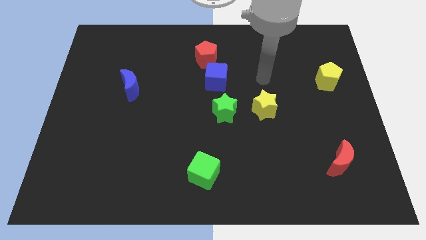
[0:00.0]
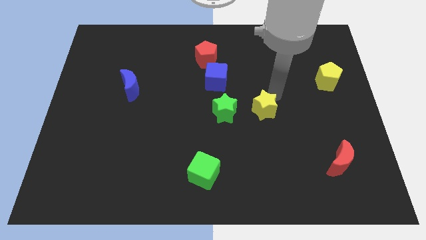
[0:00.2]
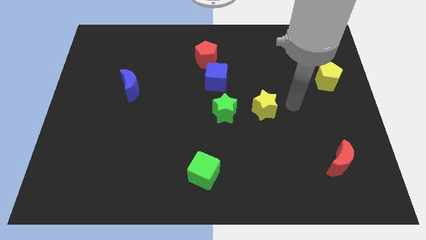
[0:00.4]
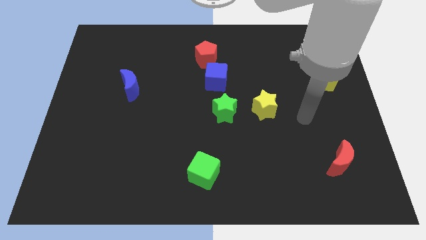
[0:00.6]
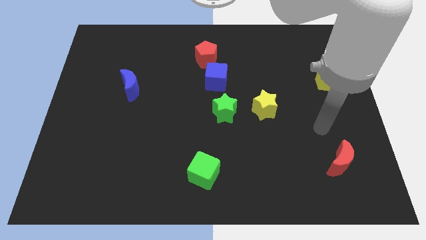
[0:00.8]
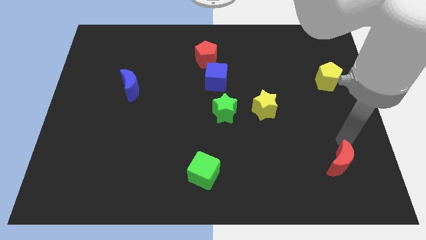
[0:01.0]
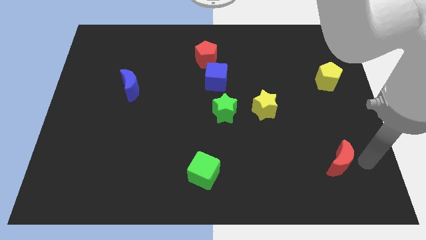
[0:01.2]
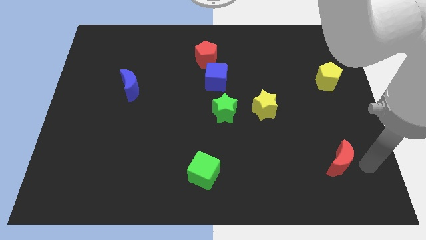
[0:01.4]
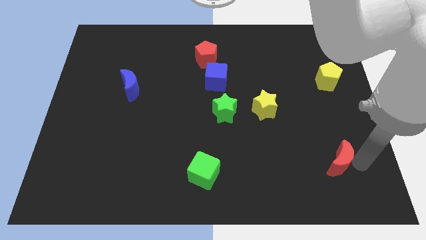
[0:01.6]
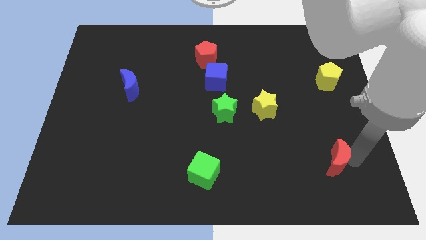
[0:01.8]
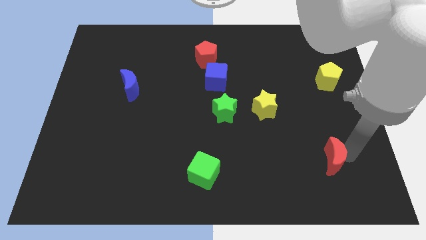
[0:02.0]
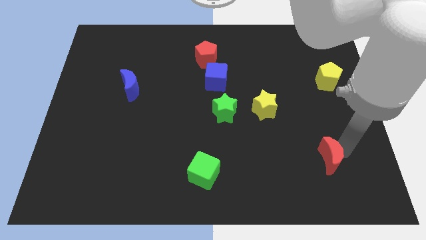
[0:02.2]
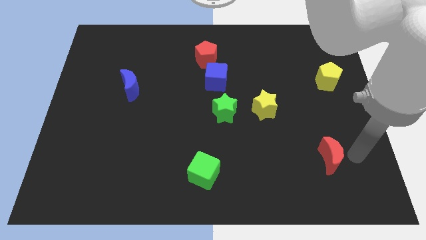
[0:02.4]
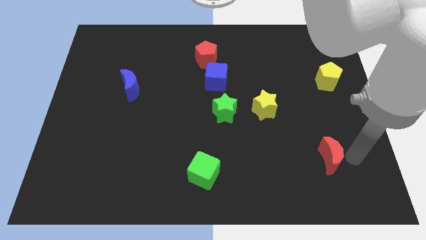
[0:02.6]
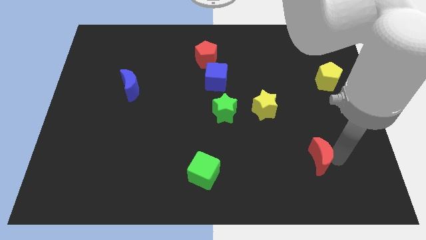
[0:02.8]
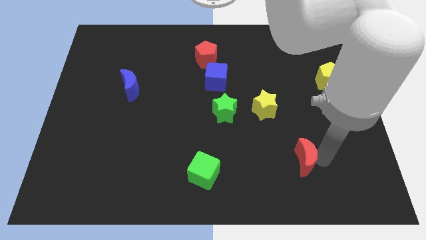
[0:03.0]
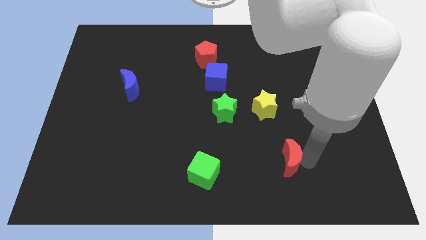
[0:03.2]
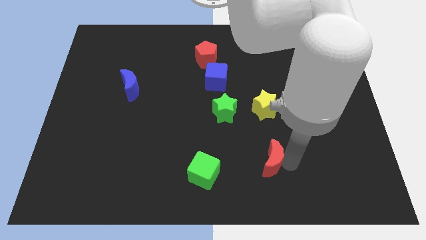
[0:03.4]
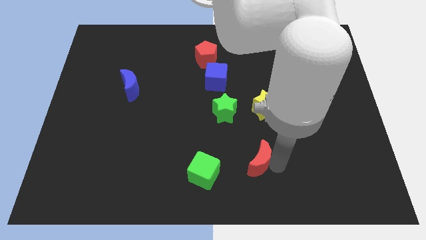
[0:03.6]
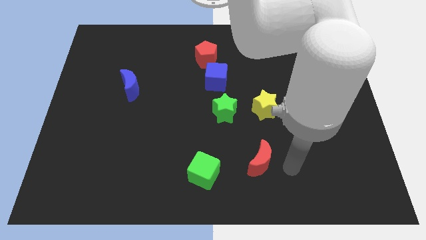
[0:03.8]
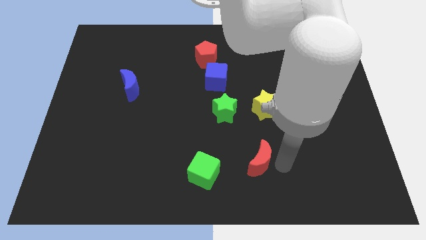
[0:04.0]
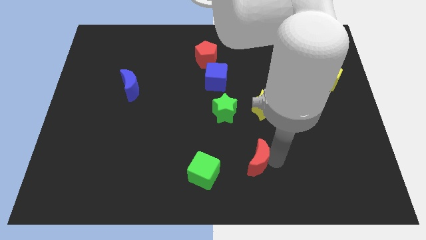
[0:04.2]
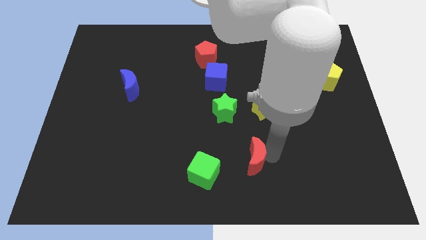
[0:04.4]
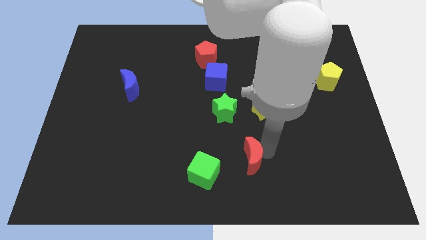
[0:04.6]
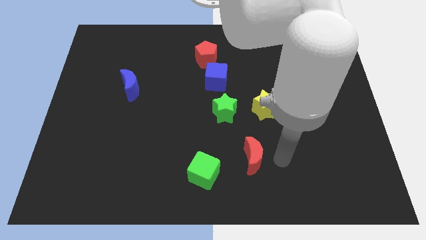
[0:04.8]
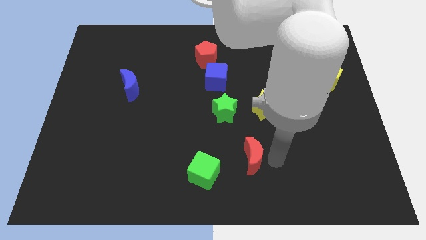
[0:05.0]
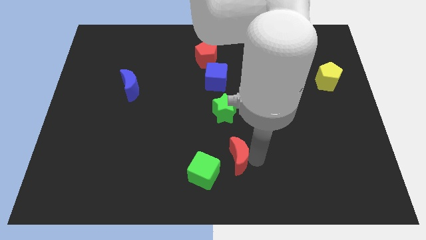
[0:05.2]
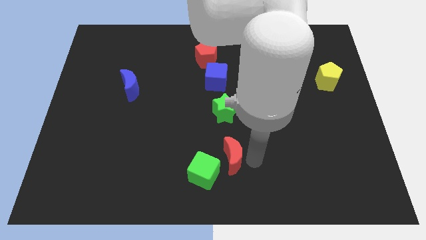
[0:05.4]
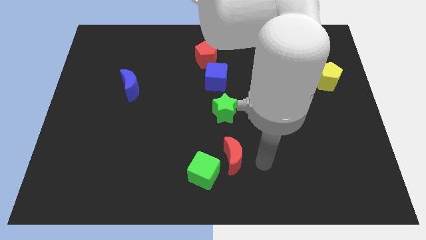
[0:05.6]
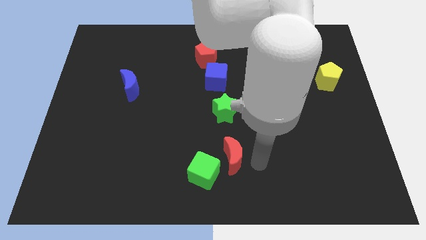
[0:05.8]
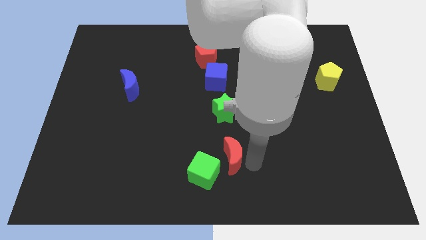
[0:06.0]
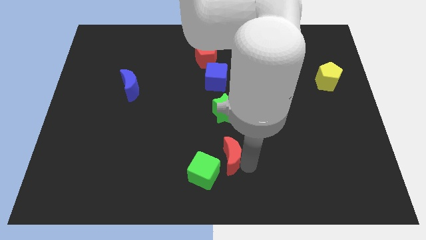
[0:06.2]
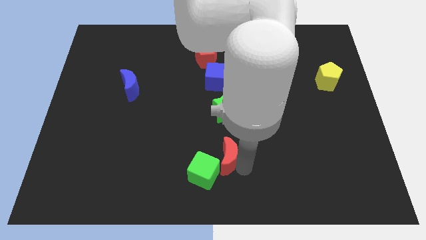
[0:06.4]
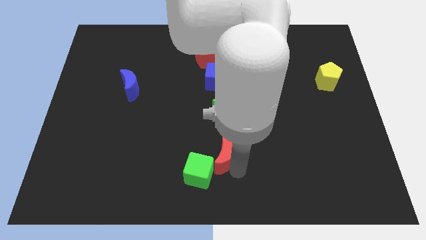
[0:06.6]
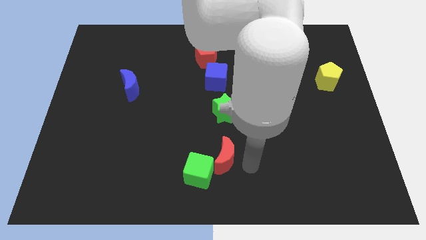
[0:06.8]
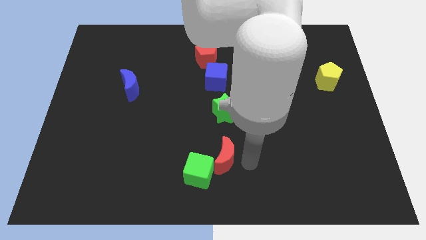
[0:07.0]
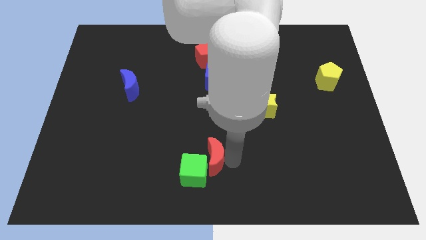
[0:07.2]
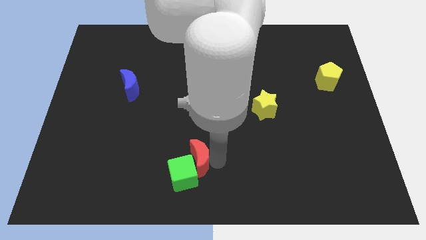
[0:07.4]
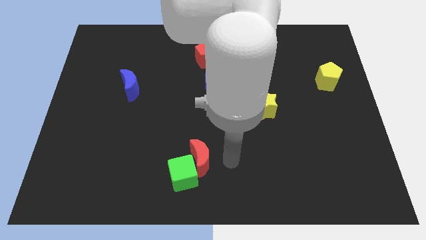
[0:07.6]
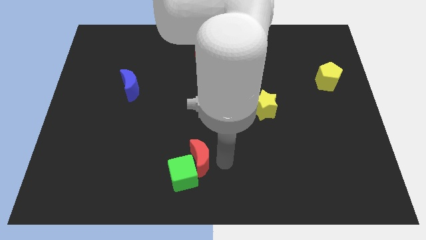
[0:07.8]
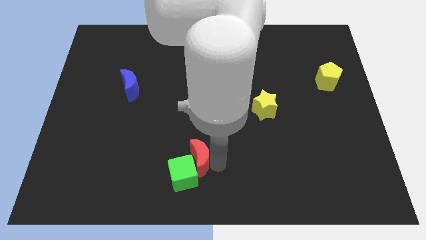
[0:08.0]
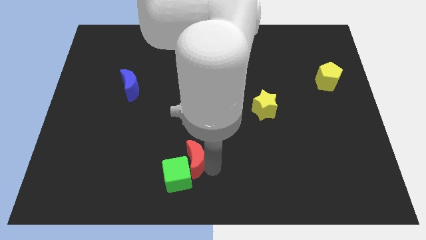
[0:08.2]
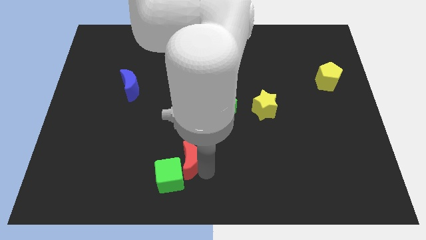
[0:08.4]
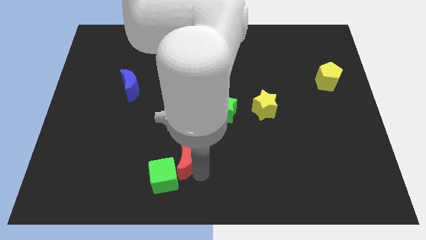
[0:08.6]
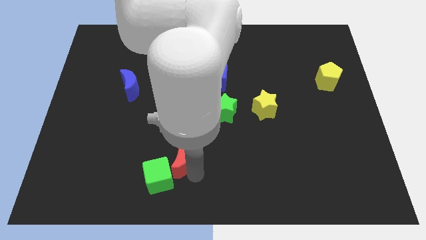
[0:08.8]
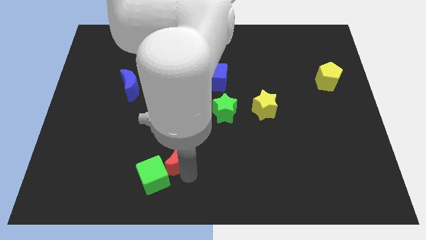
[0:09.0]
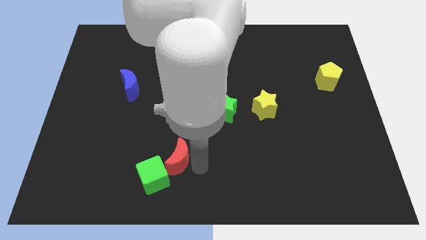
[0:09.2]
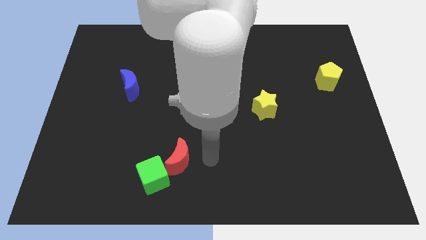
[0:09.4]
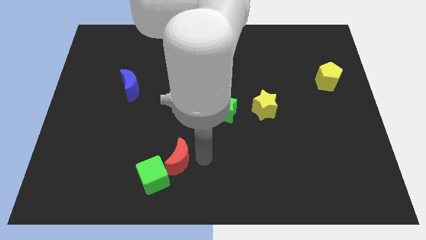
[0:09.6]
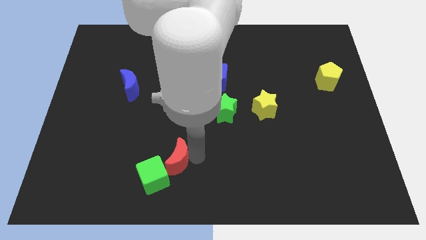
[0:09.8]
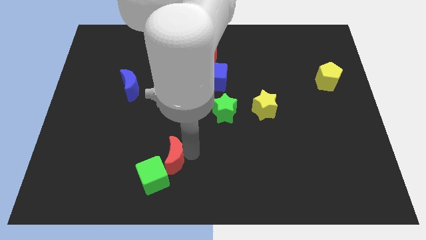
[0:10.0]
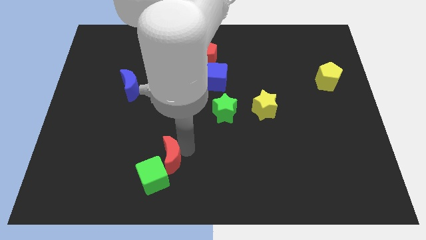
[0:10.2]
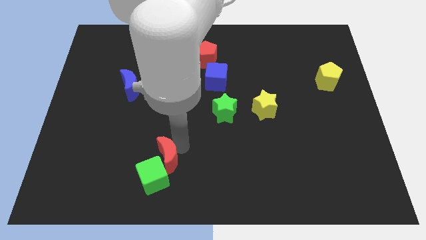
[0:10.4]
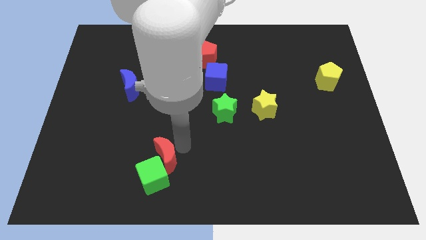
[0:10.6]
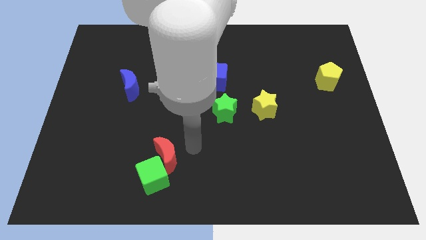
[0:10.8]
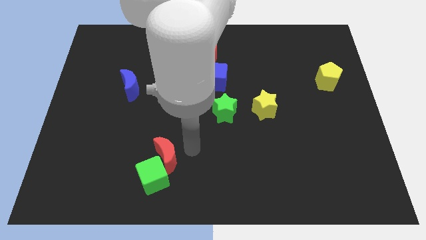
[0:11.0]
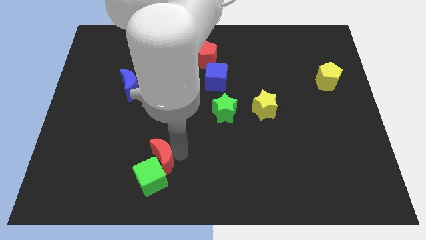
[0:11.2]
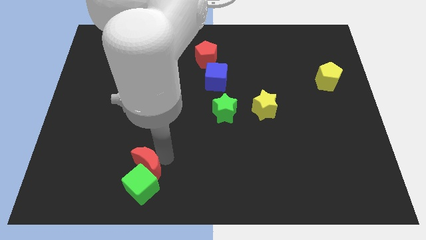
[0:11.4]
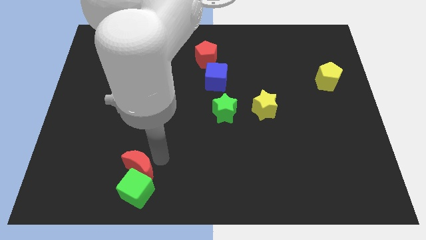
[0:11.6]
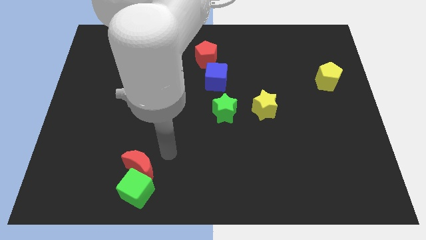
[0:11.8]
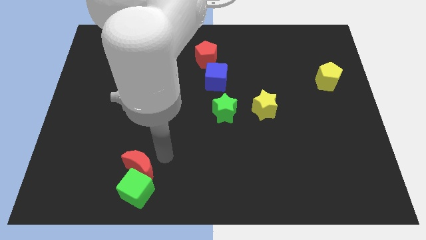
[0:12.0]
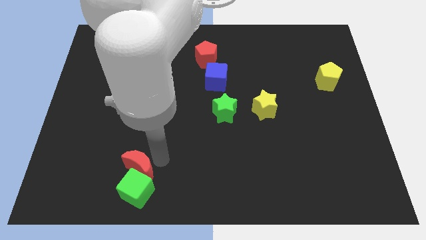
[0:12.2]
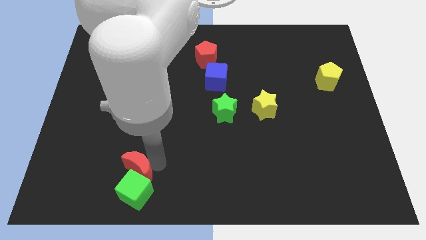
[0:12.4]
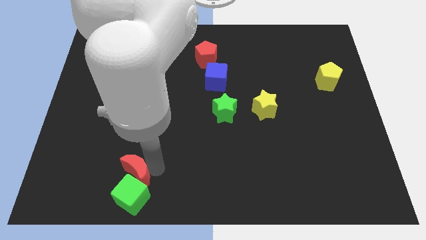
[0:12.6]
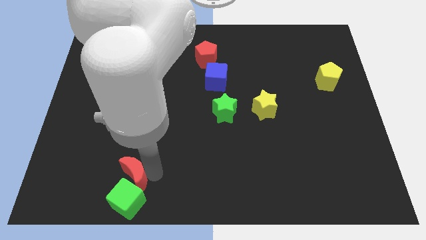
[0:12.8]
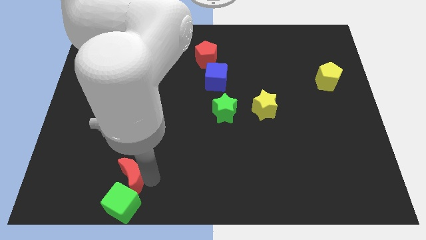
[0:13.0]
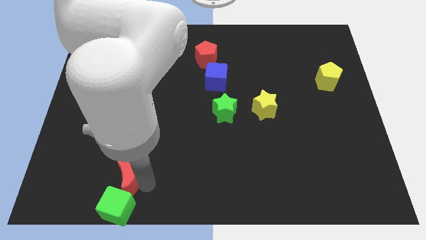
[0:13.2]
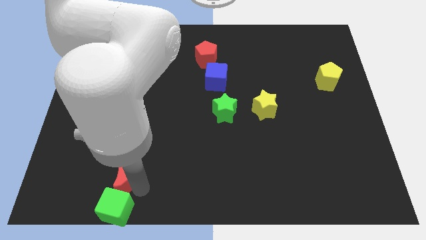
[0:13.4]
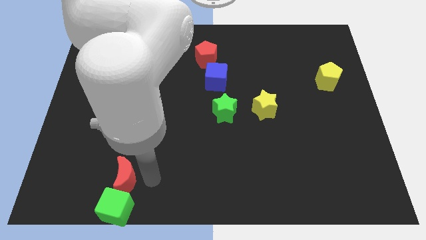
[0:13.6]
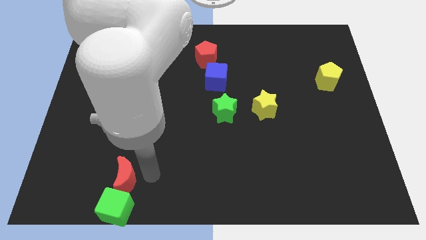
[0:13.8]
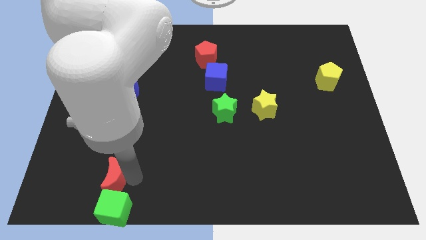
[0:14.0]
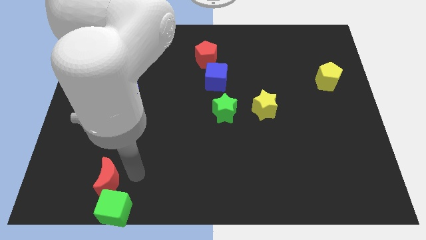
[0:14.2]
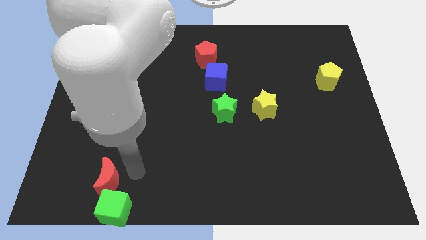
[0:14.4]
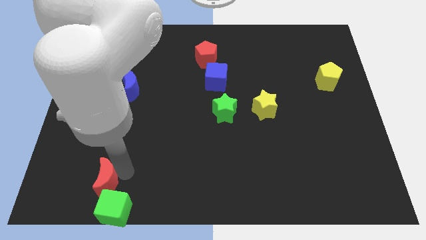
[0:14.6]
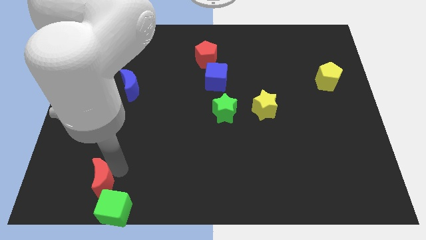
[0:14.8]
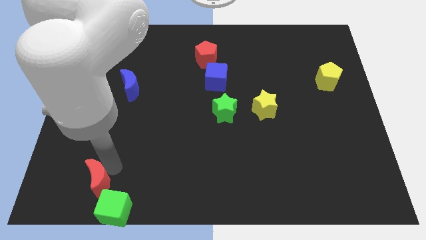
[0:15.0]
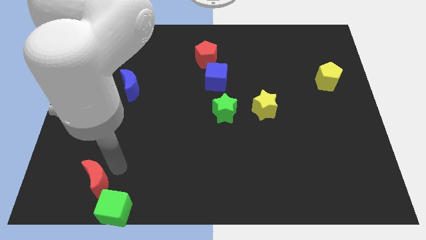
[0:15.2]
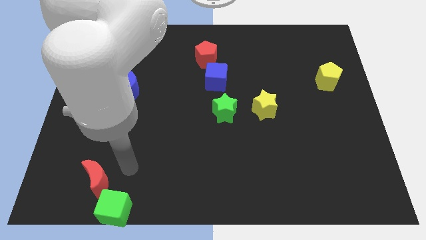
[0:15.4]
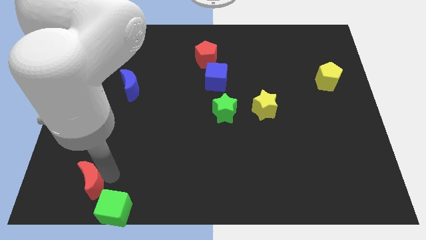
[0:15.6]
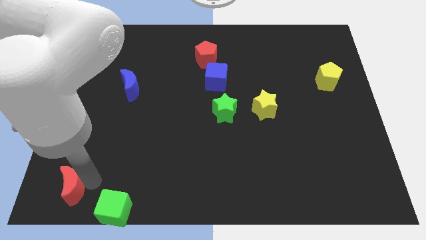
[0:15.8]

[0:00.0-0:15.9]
slide the red moon to the bottom left of the board
